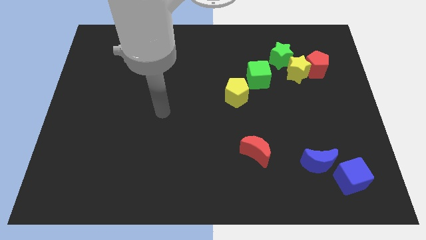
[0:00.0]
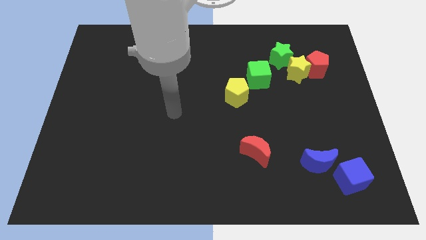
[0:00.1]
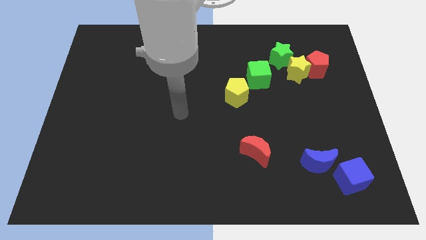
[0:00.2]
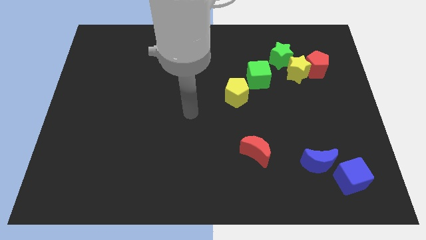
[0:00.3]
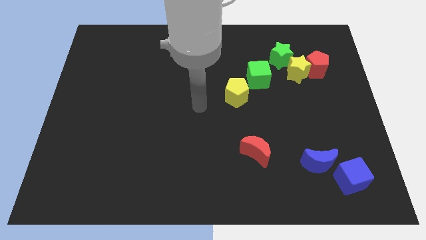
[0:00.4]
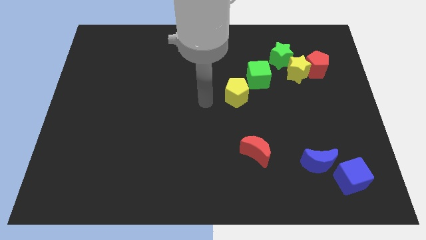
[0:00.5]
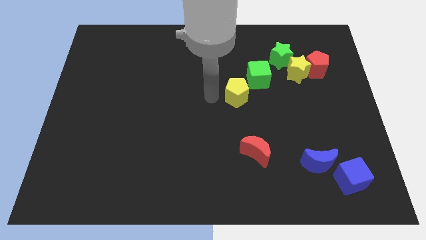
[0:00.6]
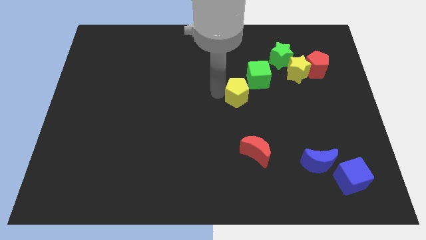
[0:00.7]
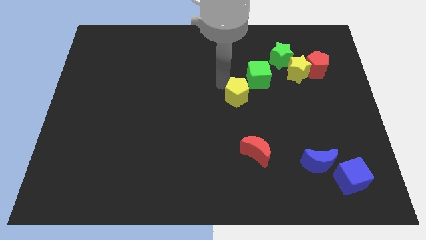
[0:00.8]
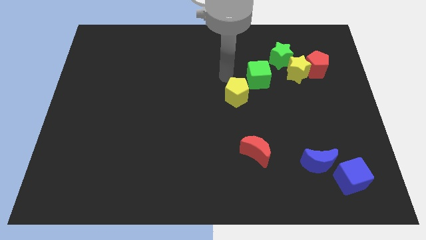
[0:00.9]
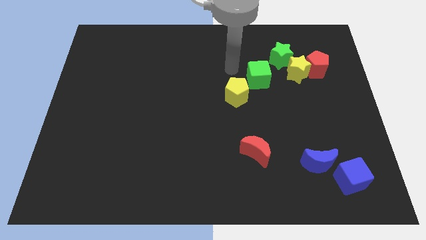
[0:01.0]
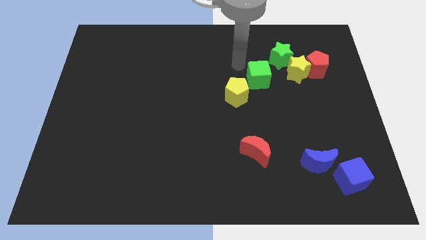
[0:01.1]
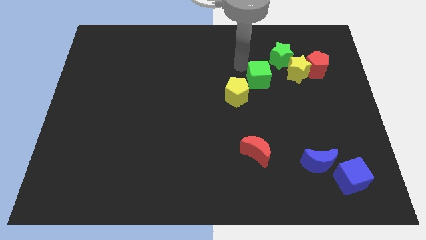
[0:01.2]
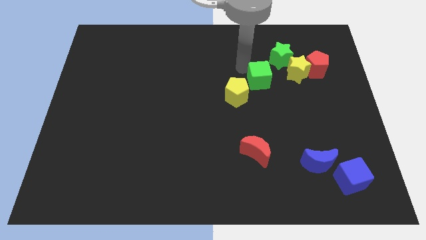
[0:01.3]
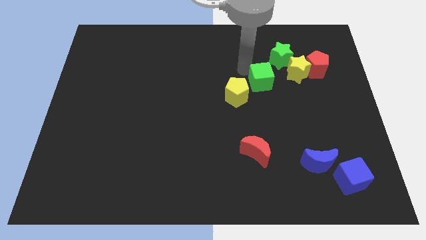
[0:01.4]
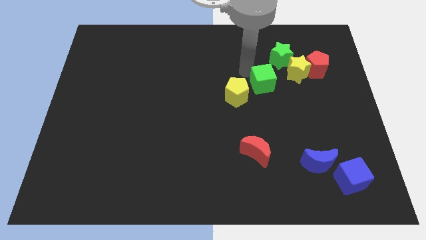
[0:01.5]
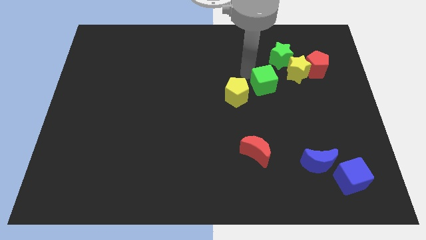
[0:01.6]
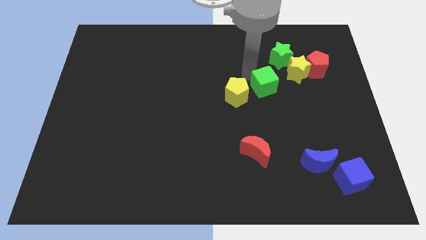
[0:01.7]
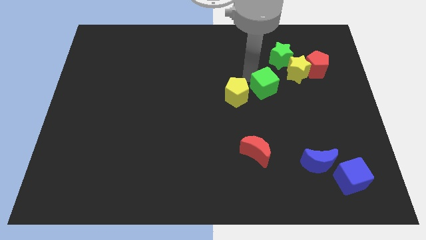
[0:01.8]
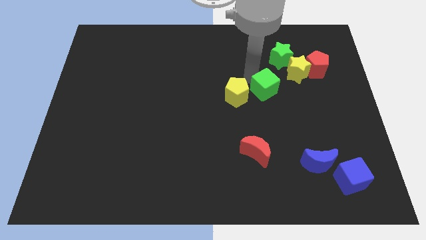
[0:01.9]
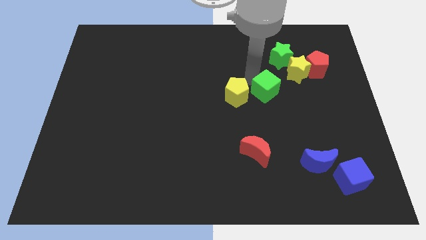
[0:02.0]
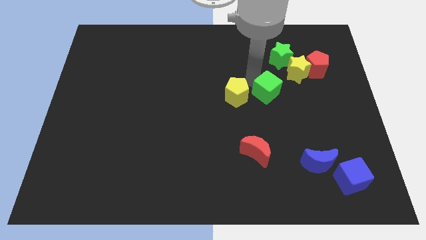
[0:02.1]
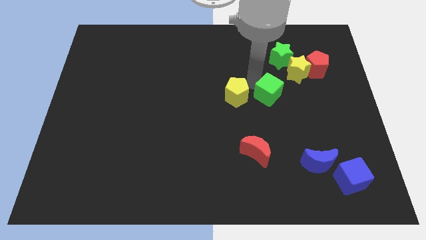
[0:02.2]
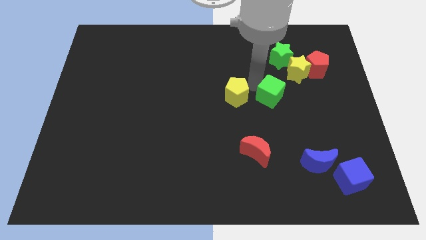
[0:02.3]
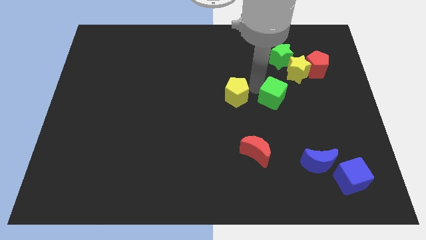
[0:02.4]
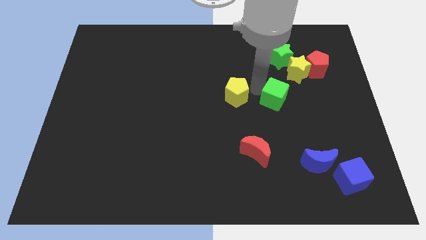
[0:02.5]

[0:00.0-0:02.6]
slide the green cube slightly downwards and then right

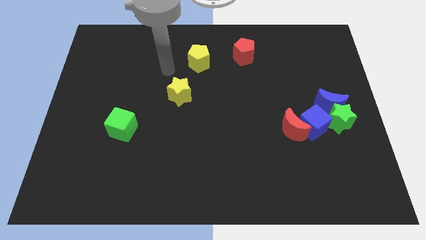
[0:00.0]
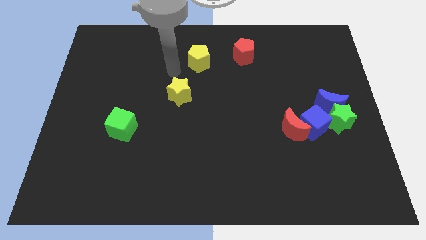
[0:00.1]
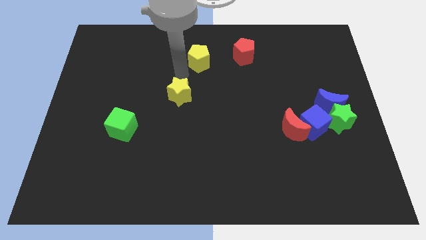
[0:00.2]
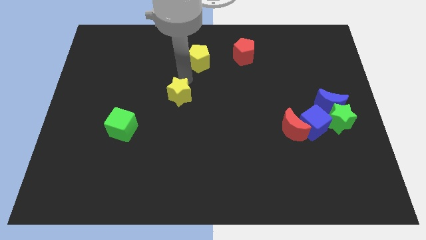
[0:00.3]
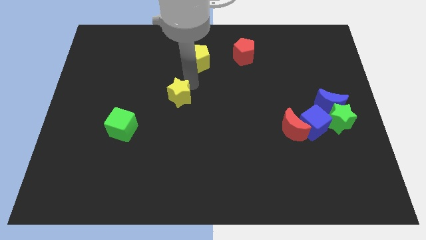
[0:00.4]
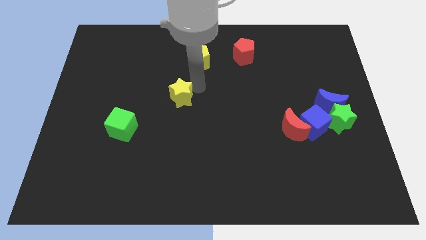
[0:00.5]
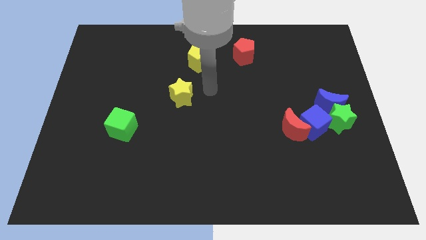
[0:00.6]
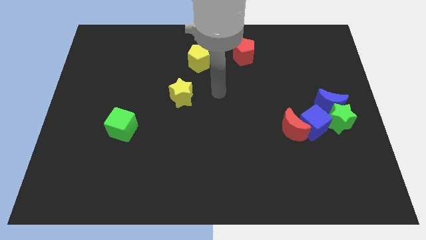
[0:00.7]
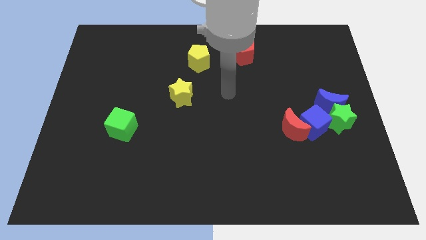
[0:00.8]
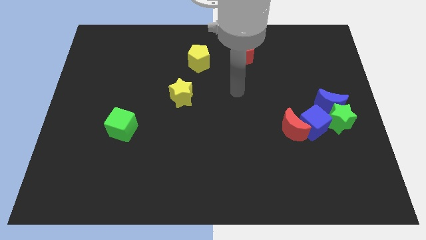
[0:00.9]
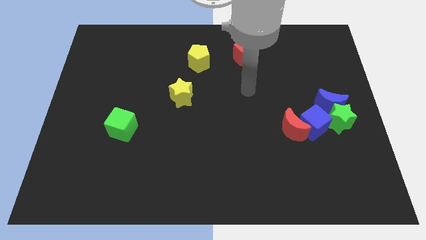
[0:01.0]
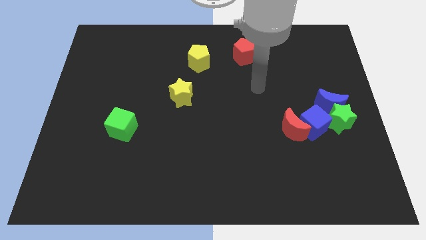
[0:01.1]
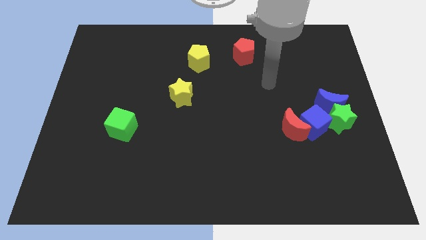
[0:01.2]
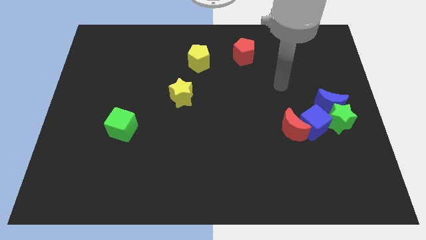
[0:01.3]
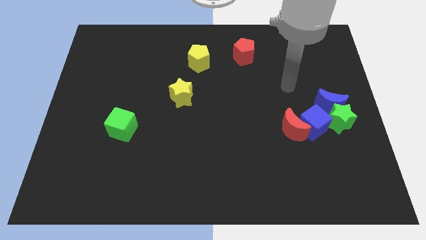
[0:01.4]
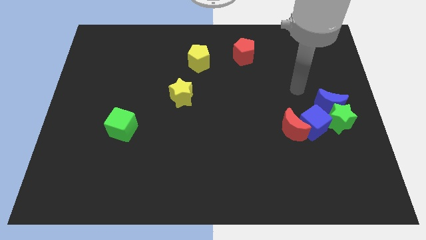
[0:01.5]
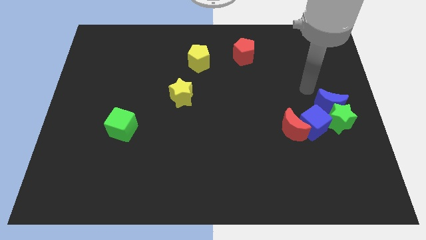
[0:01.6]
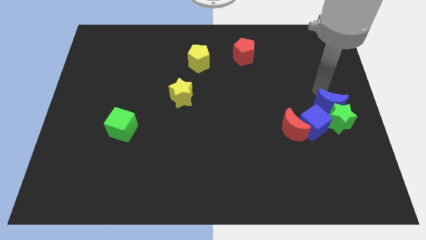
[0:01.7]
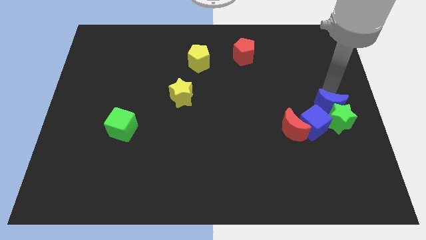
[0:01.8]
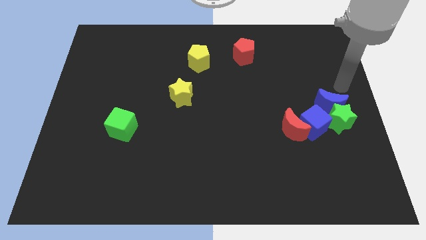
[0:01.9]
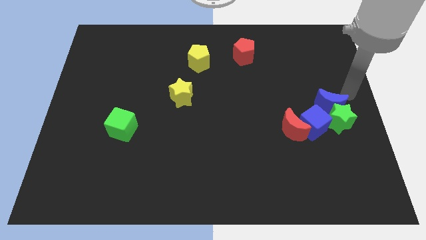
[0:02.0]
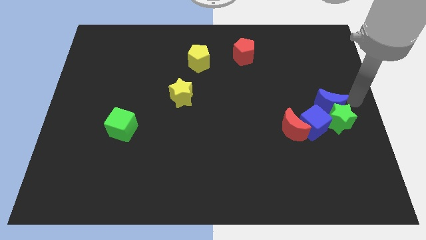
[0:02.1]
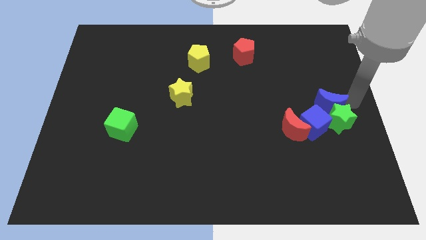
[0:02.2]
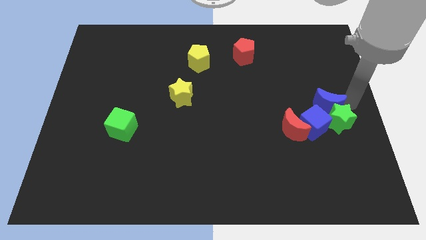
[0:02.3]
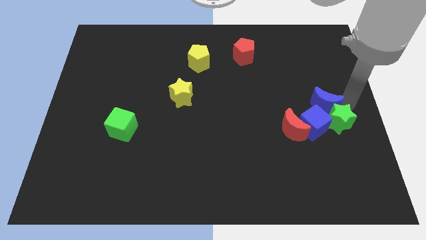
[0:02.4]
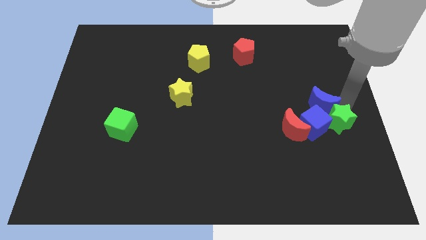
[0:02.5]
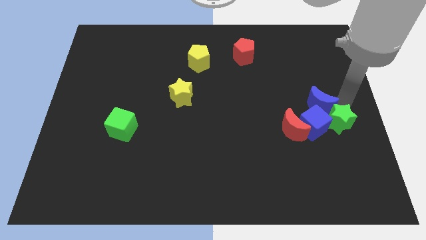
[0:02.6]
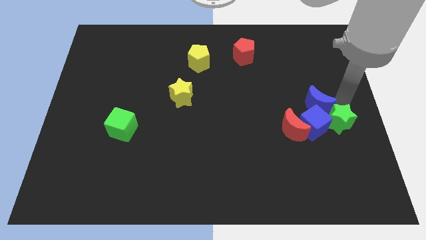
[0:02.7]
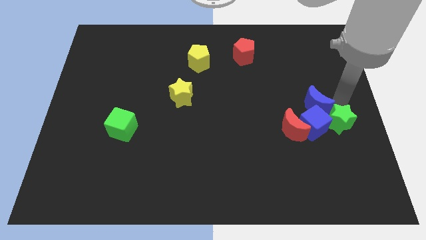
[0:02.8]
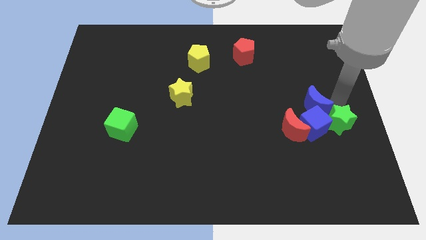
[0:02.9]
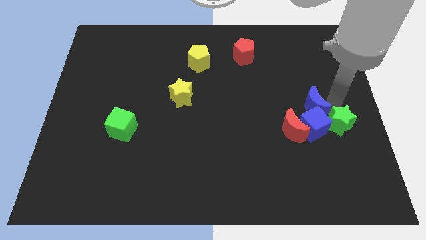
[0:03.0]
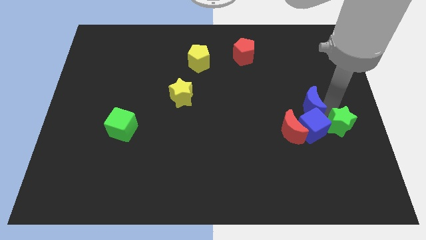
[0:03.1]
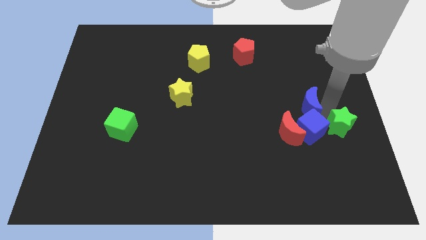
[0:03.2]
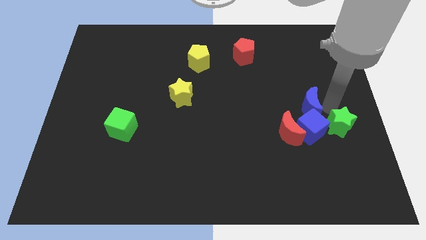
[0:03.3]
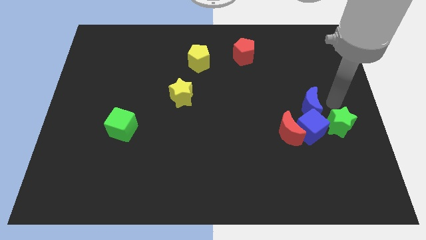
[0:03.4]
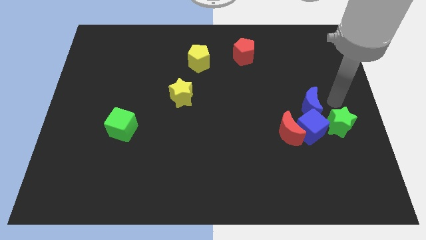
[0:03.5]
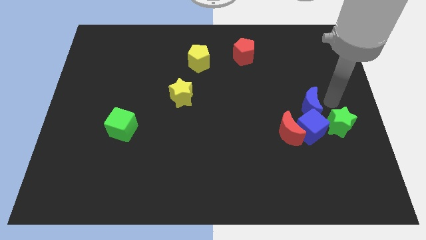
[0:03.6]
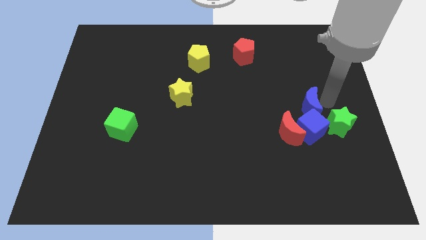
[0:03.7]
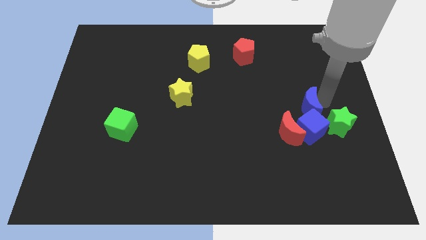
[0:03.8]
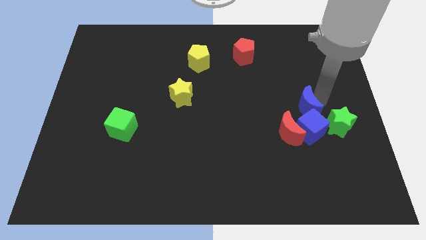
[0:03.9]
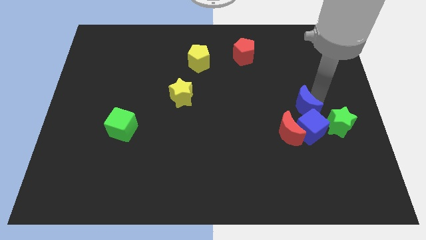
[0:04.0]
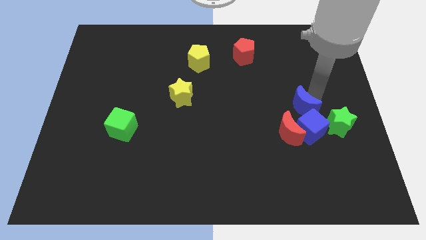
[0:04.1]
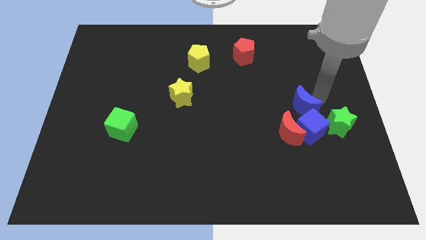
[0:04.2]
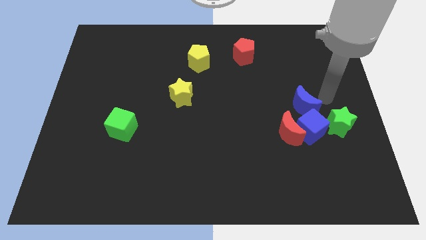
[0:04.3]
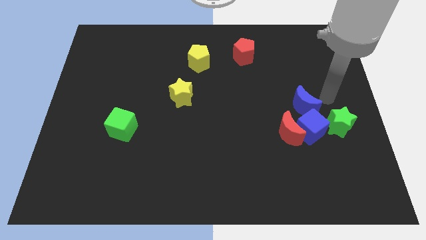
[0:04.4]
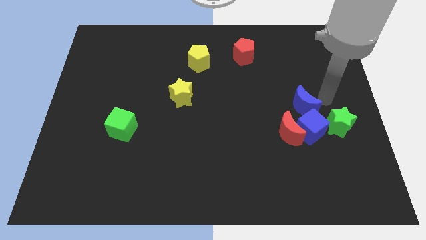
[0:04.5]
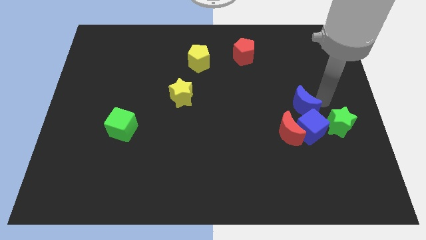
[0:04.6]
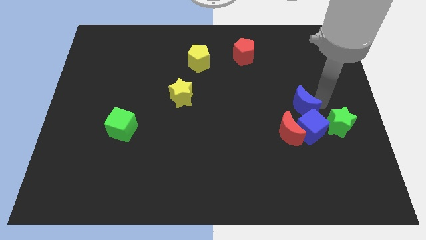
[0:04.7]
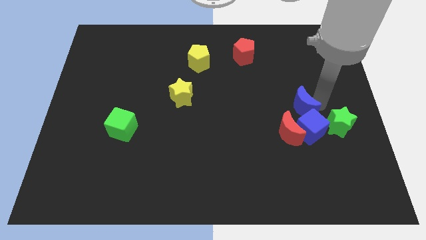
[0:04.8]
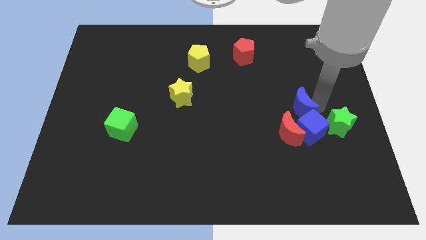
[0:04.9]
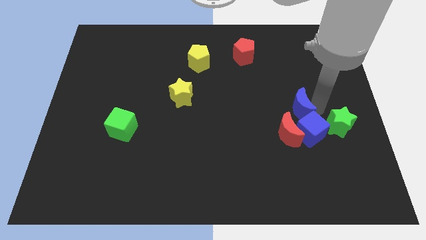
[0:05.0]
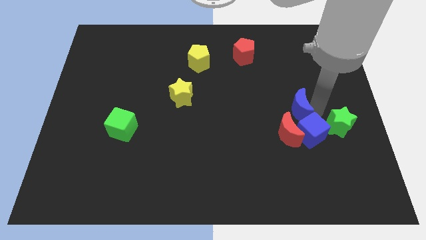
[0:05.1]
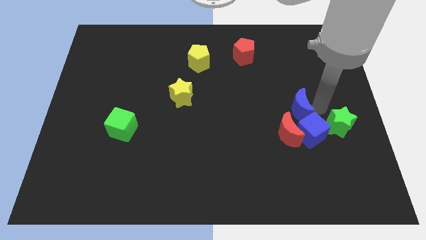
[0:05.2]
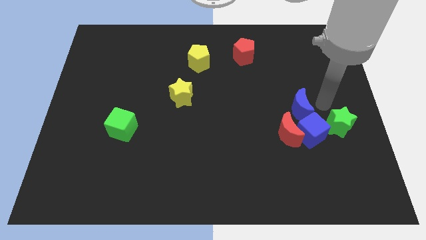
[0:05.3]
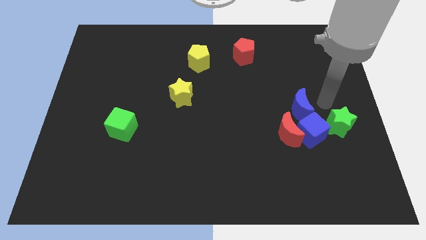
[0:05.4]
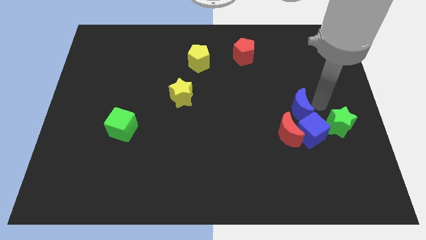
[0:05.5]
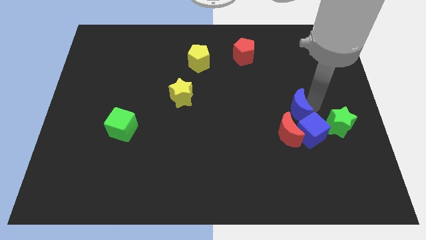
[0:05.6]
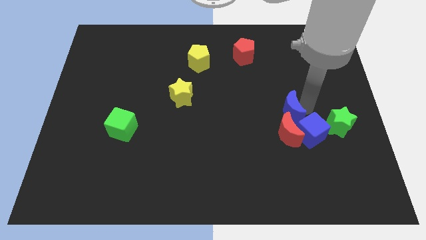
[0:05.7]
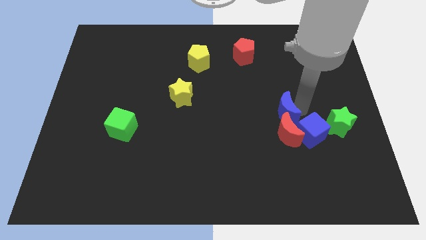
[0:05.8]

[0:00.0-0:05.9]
slightly slide the blue moon downwards and left diagonally

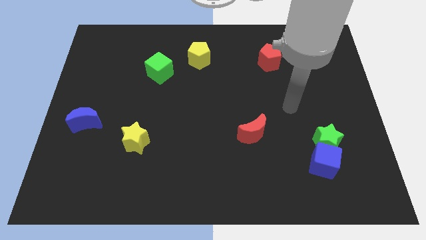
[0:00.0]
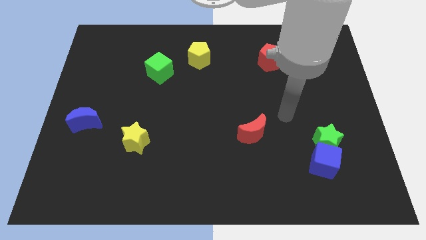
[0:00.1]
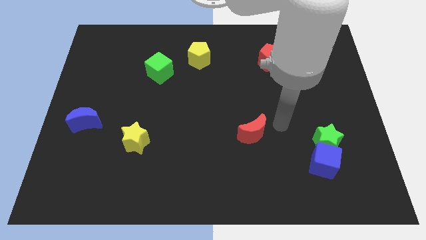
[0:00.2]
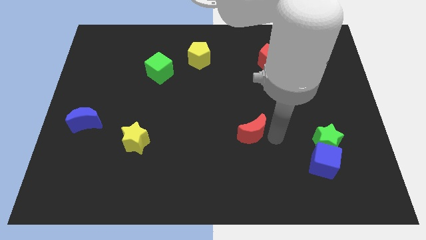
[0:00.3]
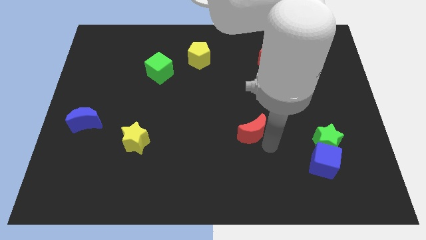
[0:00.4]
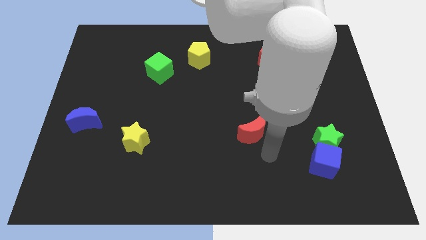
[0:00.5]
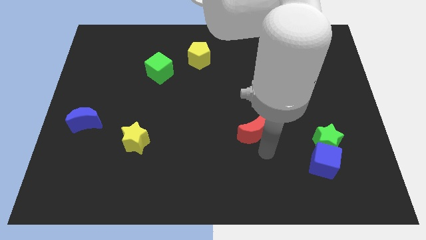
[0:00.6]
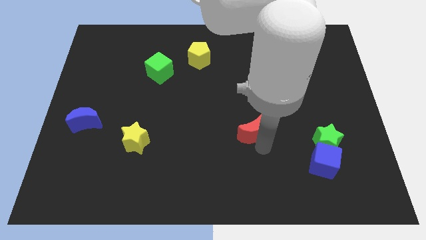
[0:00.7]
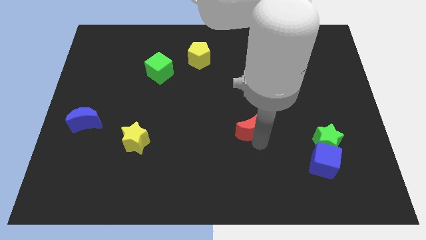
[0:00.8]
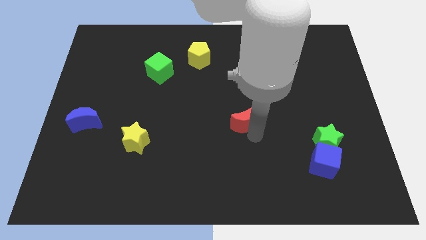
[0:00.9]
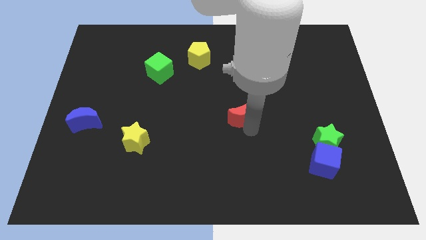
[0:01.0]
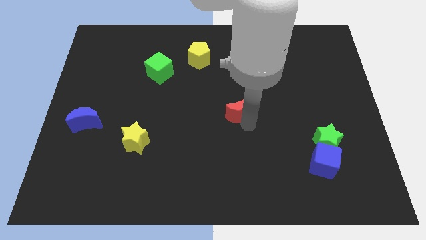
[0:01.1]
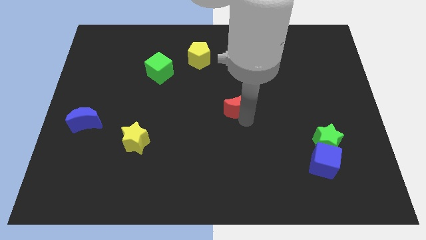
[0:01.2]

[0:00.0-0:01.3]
slide the red moon upwards a little
